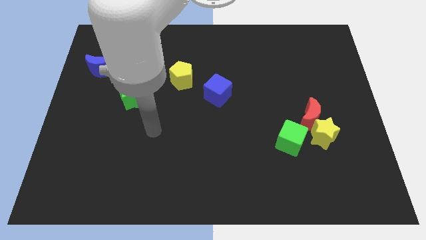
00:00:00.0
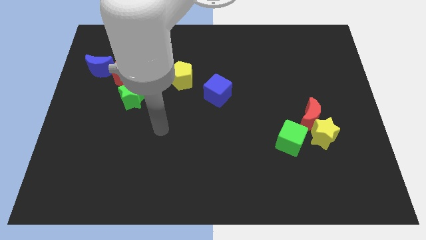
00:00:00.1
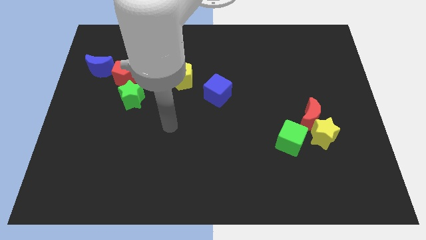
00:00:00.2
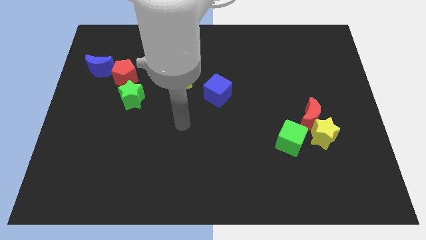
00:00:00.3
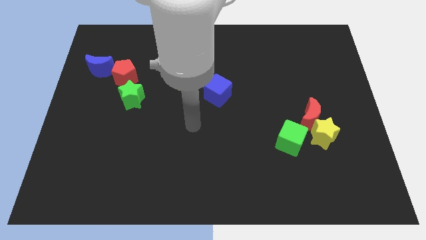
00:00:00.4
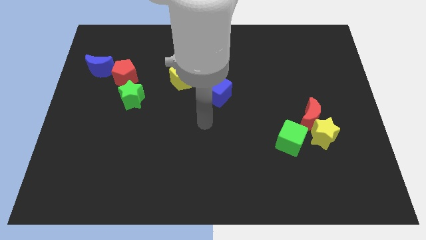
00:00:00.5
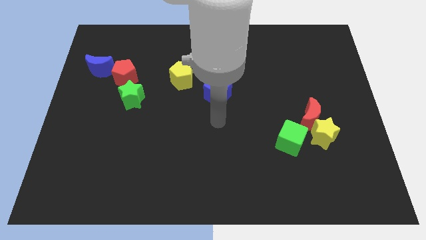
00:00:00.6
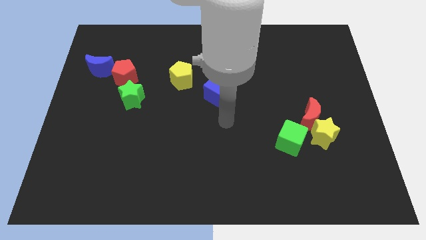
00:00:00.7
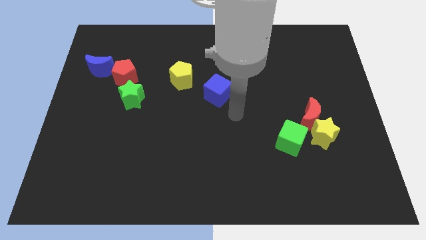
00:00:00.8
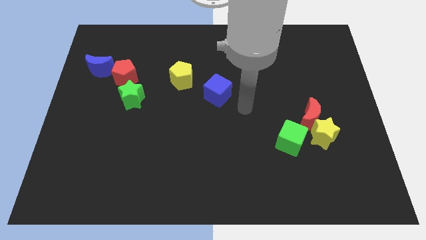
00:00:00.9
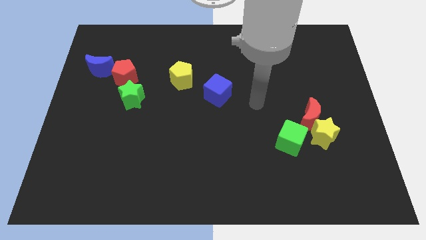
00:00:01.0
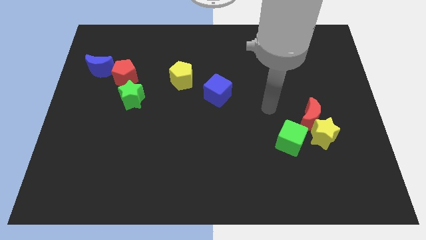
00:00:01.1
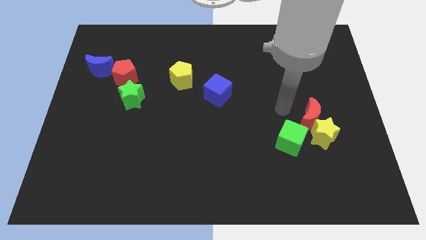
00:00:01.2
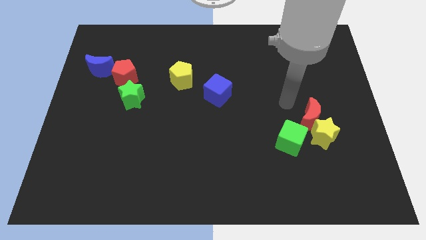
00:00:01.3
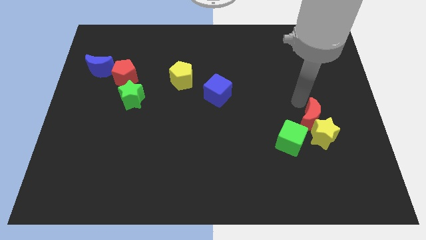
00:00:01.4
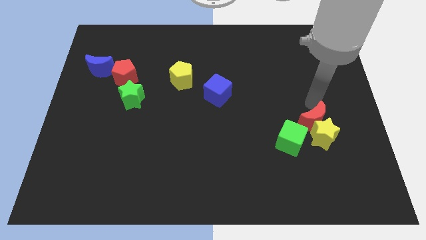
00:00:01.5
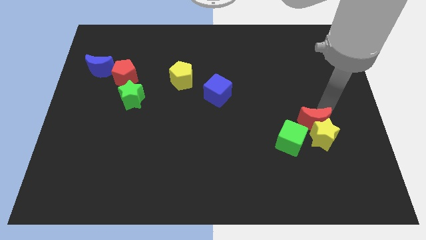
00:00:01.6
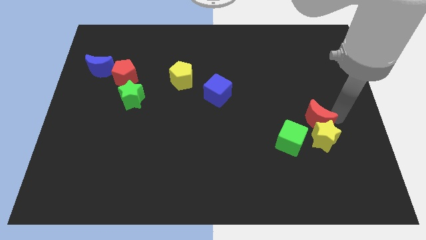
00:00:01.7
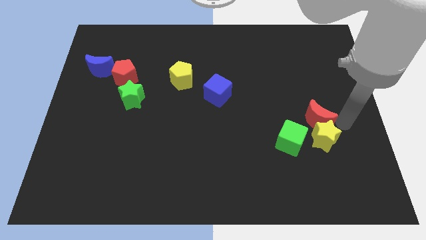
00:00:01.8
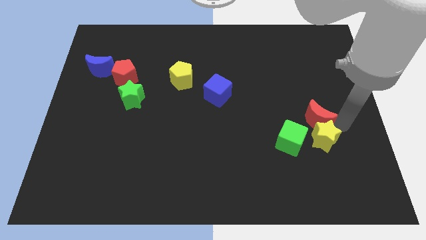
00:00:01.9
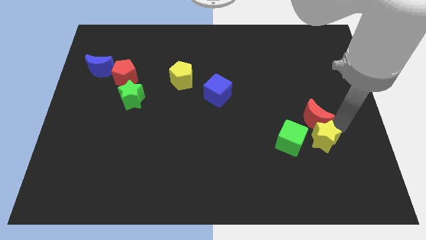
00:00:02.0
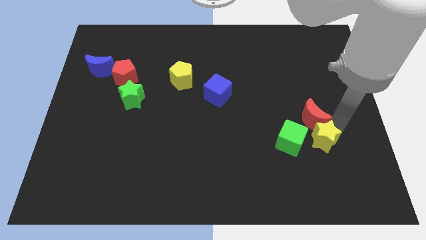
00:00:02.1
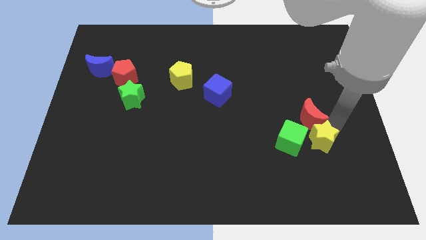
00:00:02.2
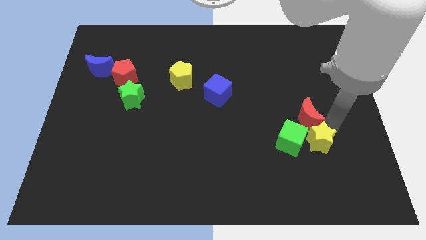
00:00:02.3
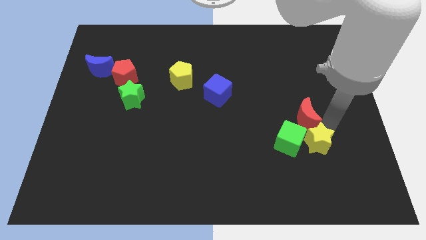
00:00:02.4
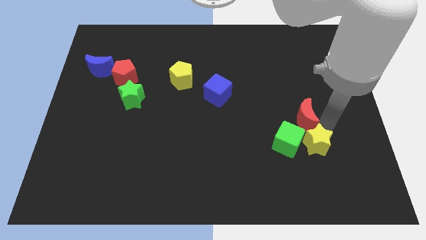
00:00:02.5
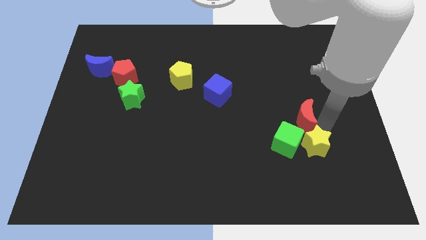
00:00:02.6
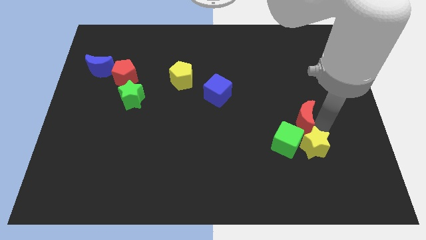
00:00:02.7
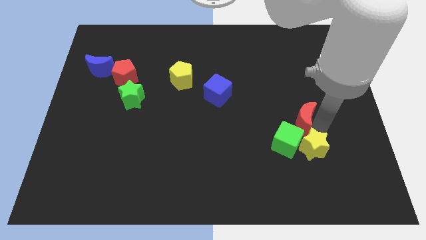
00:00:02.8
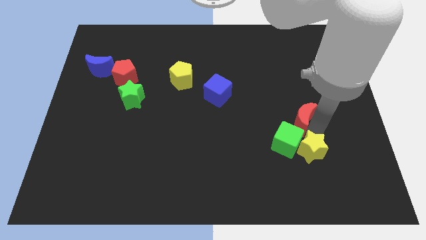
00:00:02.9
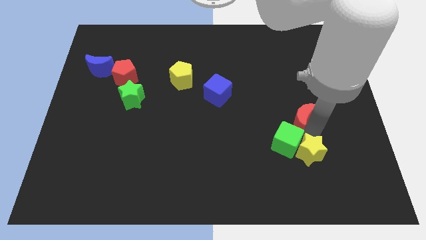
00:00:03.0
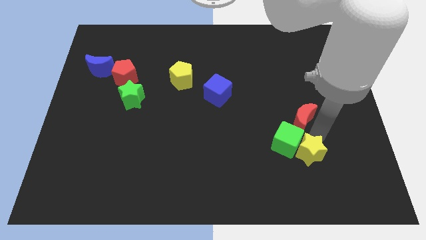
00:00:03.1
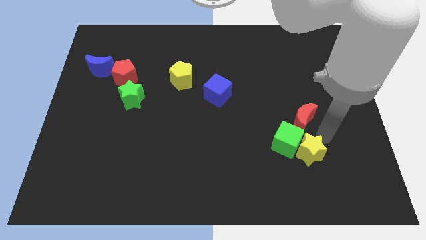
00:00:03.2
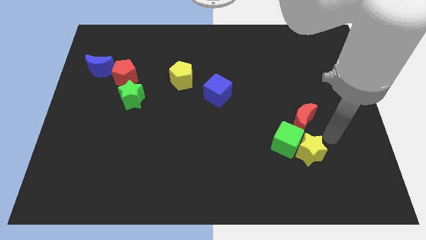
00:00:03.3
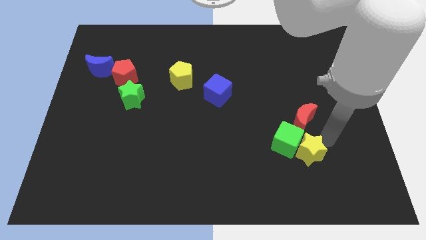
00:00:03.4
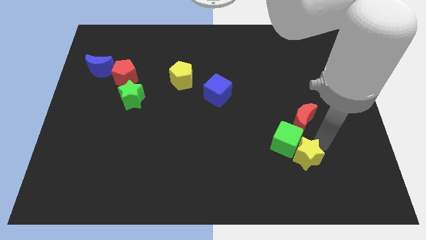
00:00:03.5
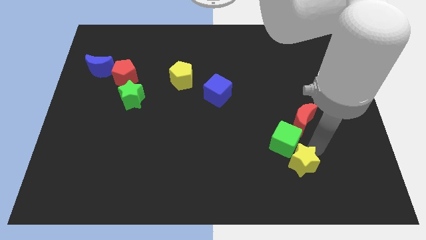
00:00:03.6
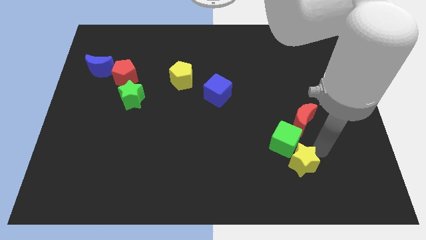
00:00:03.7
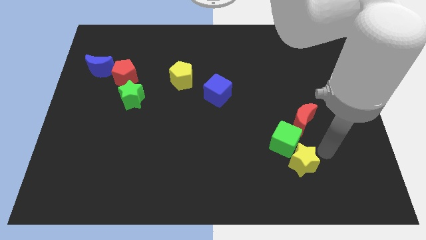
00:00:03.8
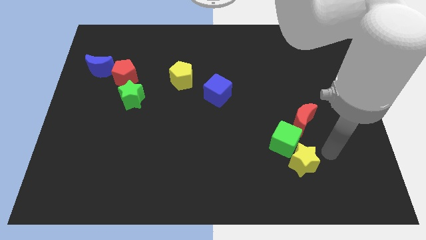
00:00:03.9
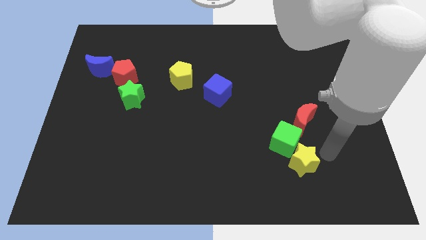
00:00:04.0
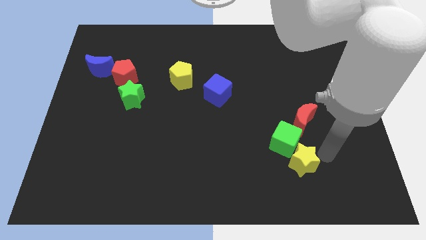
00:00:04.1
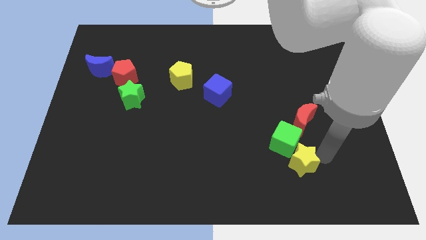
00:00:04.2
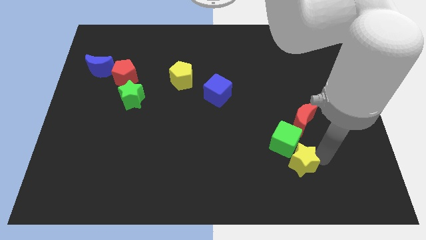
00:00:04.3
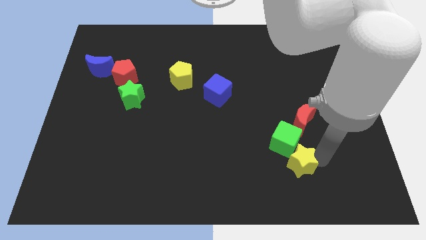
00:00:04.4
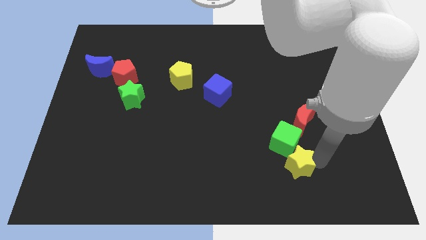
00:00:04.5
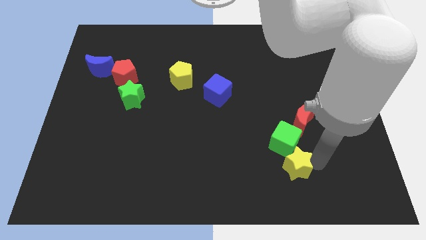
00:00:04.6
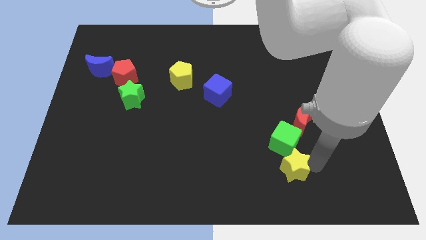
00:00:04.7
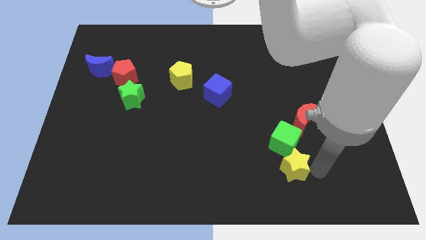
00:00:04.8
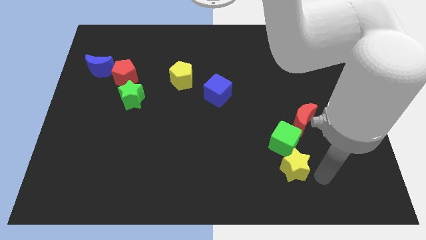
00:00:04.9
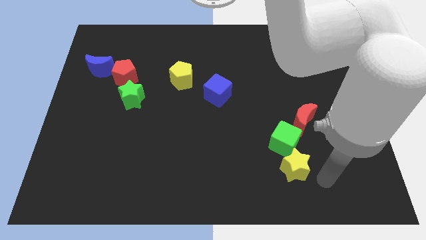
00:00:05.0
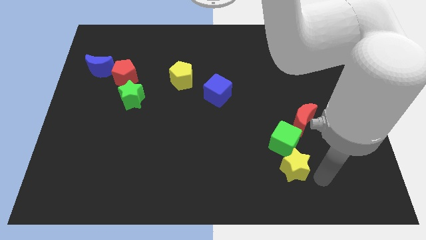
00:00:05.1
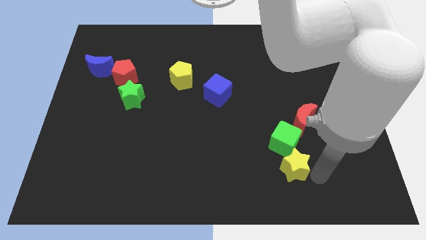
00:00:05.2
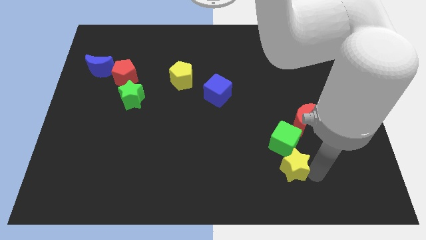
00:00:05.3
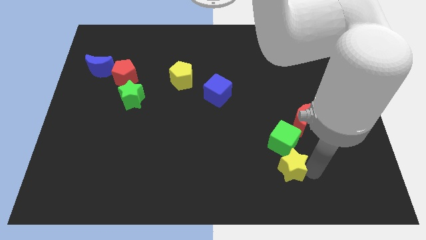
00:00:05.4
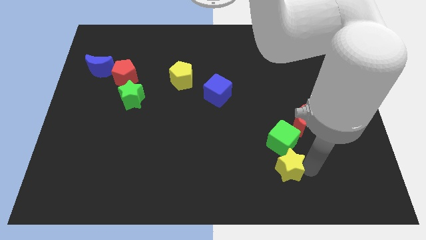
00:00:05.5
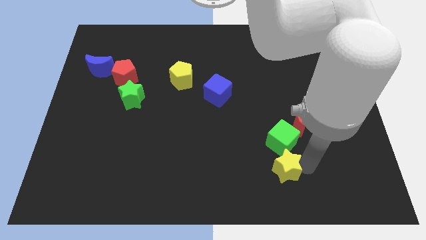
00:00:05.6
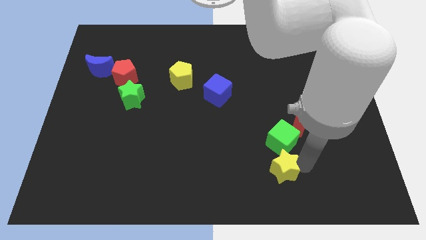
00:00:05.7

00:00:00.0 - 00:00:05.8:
push the yellow star to the left somewhat

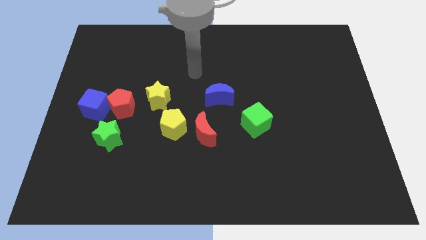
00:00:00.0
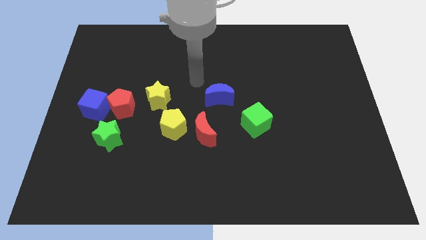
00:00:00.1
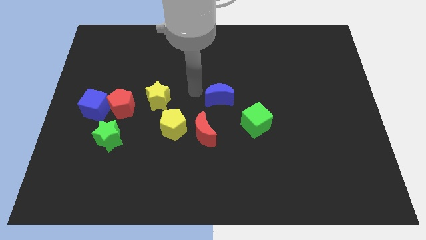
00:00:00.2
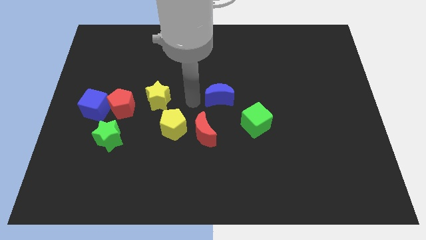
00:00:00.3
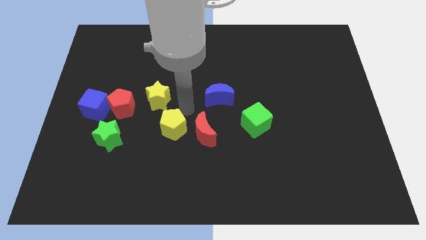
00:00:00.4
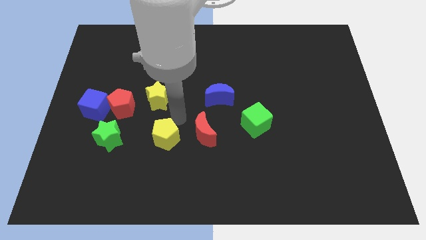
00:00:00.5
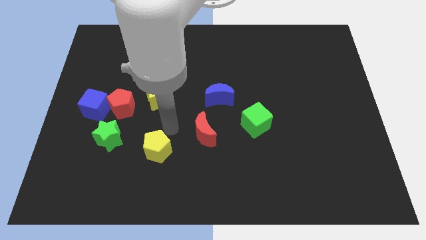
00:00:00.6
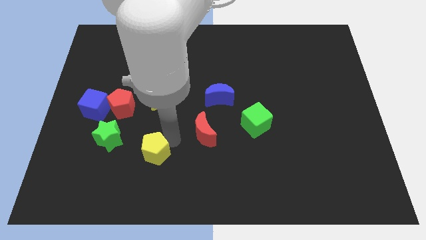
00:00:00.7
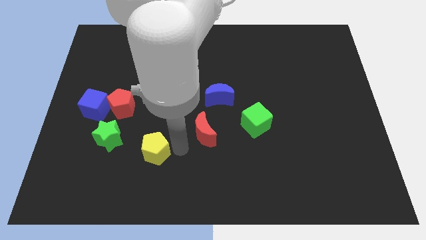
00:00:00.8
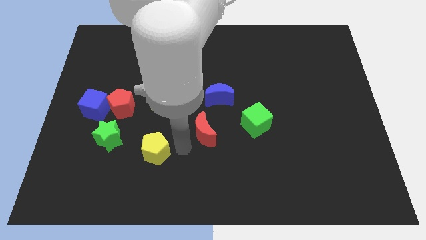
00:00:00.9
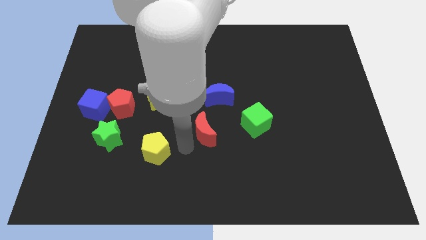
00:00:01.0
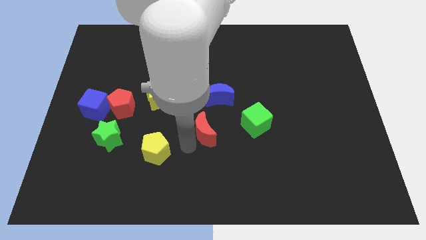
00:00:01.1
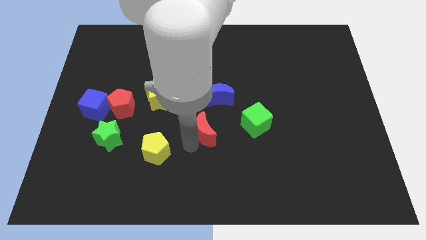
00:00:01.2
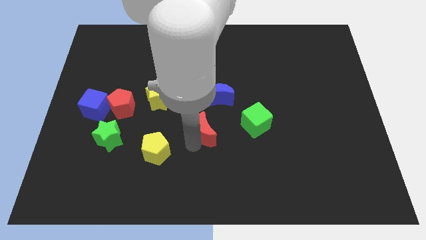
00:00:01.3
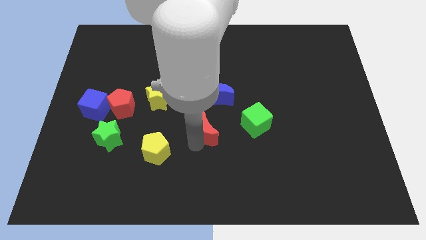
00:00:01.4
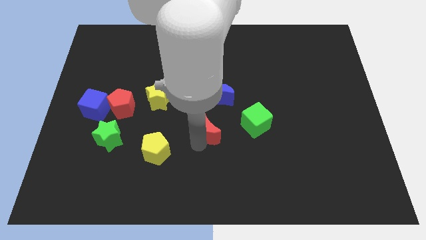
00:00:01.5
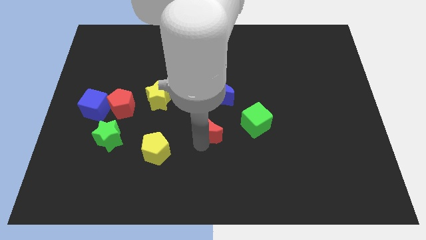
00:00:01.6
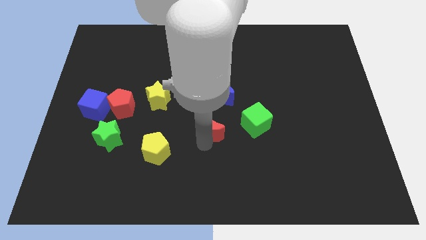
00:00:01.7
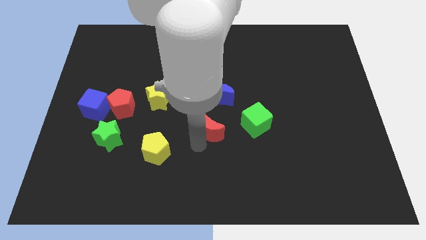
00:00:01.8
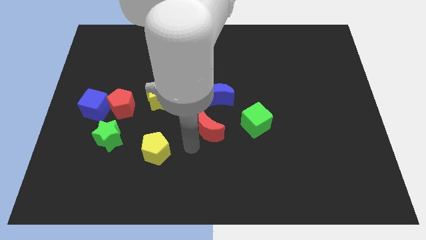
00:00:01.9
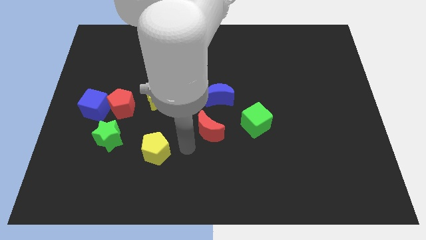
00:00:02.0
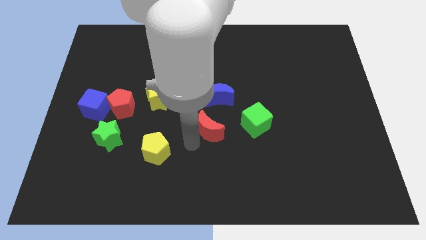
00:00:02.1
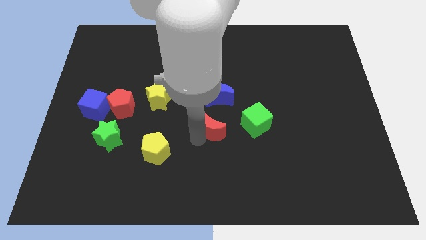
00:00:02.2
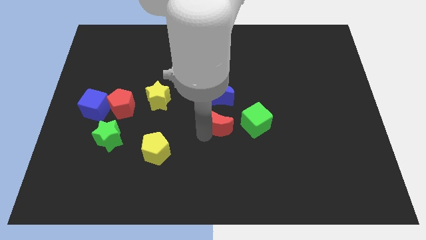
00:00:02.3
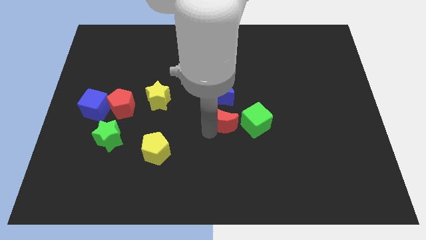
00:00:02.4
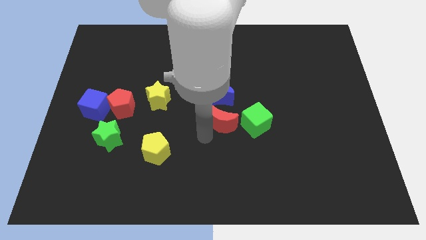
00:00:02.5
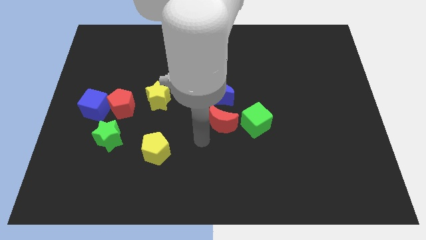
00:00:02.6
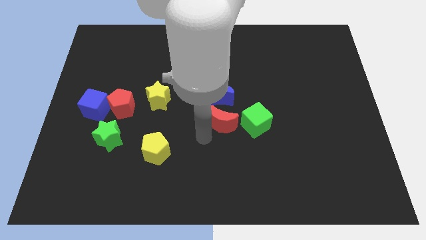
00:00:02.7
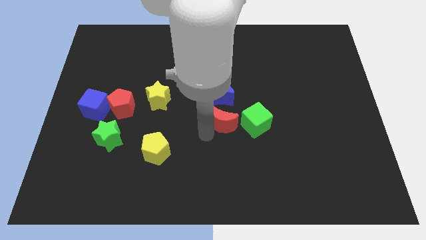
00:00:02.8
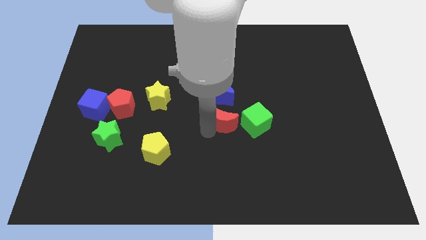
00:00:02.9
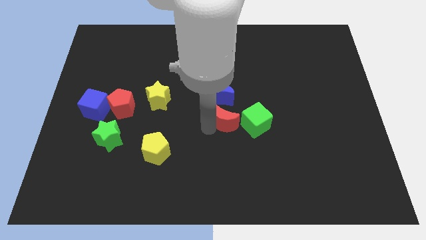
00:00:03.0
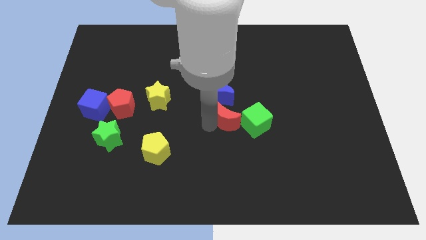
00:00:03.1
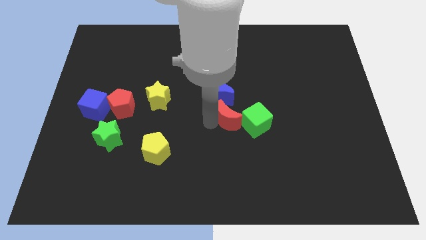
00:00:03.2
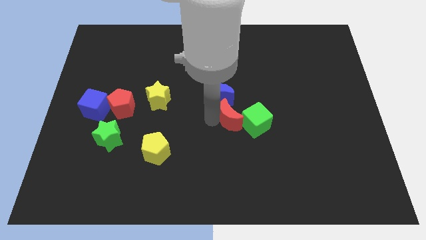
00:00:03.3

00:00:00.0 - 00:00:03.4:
move the red moon diagonally up and right slightly
